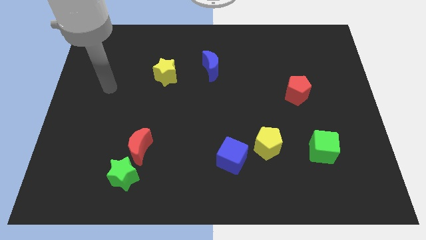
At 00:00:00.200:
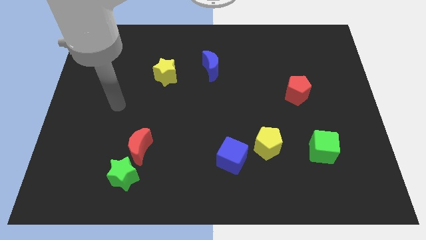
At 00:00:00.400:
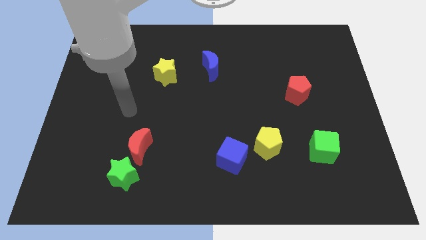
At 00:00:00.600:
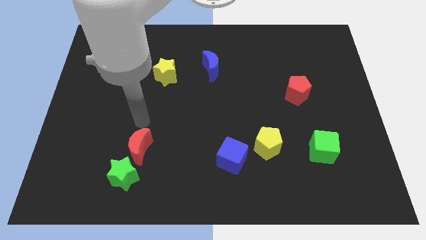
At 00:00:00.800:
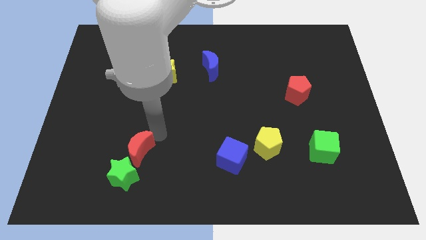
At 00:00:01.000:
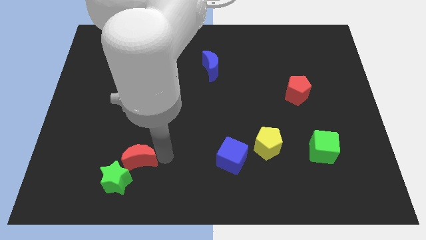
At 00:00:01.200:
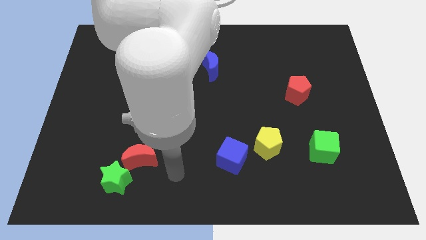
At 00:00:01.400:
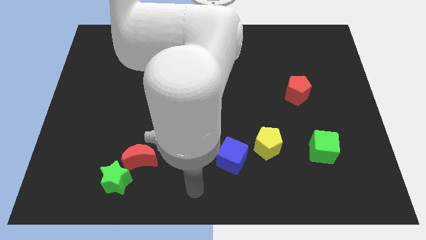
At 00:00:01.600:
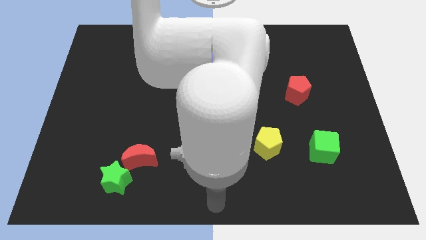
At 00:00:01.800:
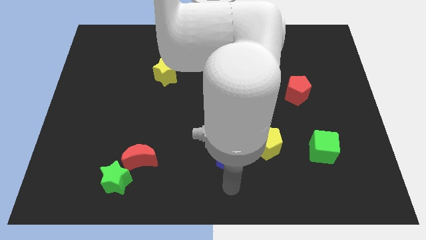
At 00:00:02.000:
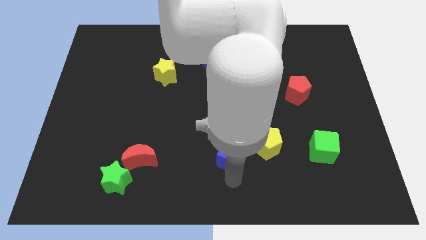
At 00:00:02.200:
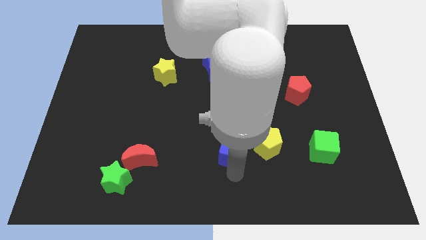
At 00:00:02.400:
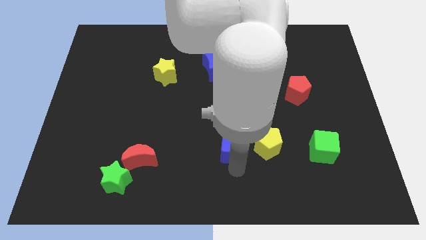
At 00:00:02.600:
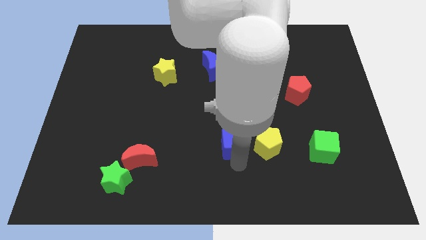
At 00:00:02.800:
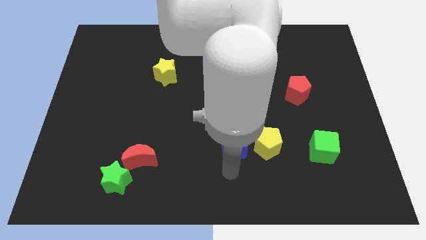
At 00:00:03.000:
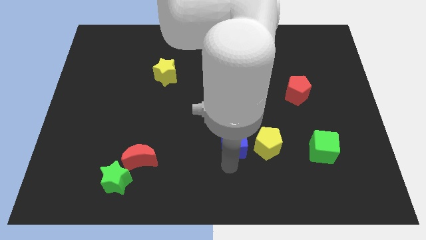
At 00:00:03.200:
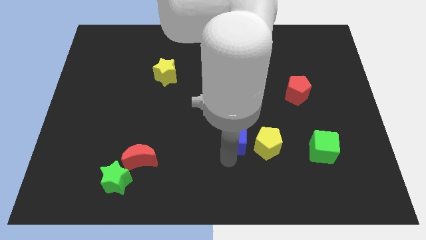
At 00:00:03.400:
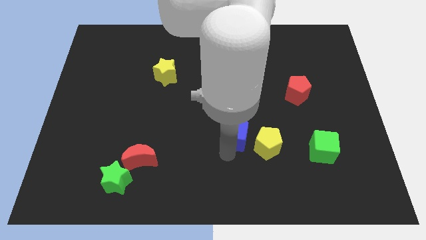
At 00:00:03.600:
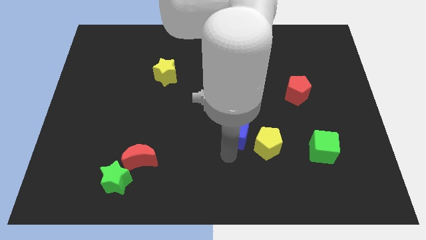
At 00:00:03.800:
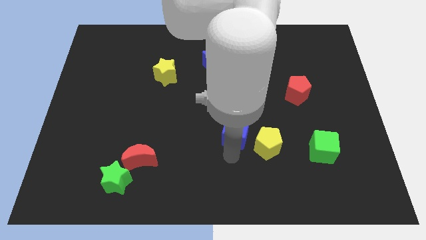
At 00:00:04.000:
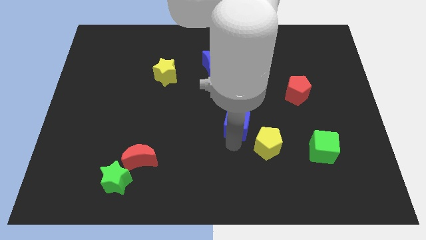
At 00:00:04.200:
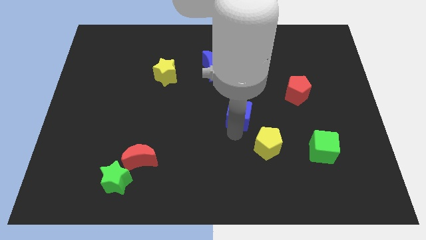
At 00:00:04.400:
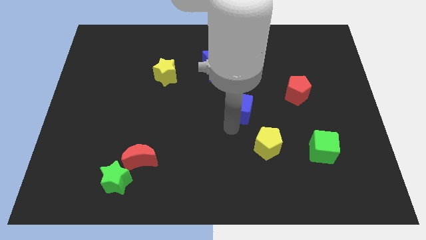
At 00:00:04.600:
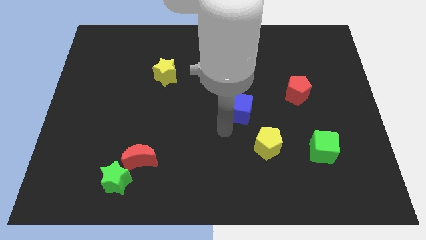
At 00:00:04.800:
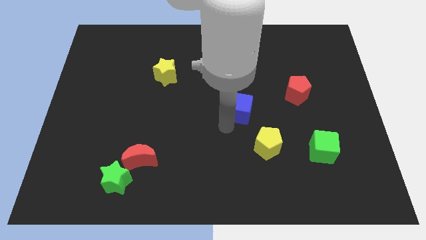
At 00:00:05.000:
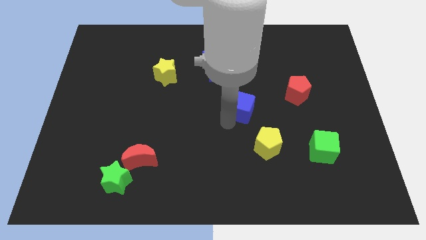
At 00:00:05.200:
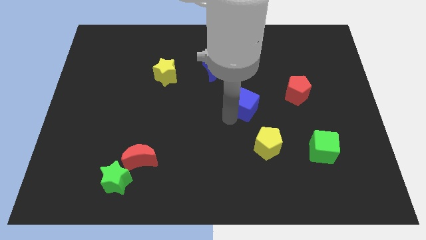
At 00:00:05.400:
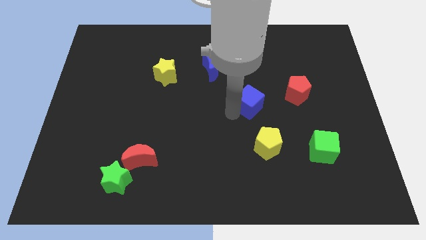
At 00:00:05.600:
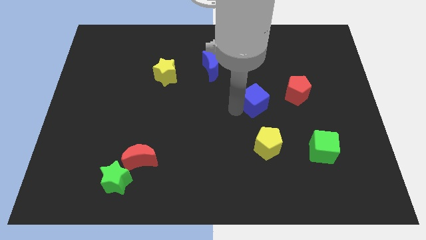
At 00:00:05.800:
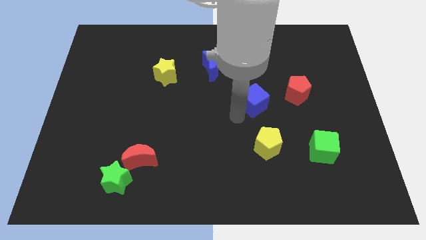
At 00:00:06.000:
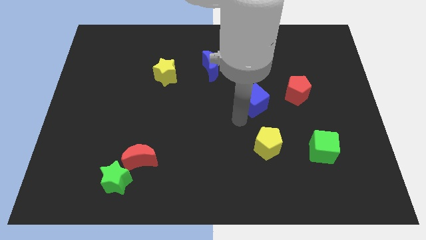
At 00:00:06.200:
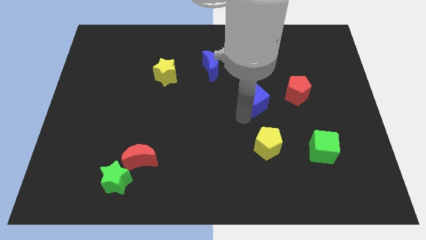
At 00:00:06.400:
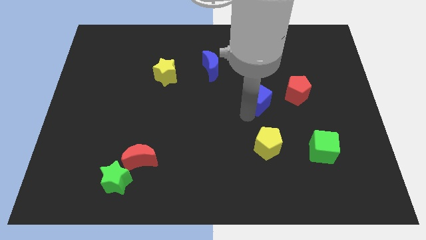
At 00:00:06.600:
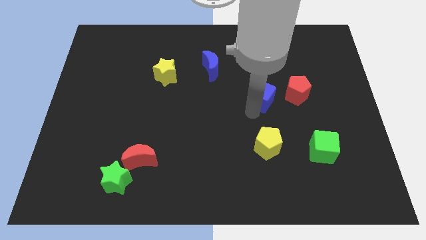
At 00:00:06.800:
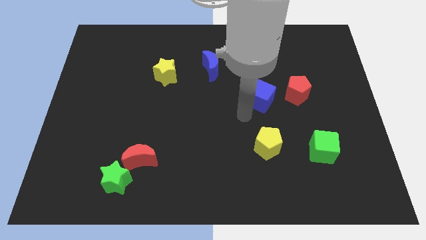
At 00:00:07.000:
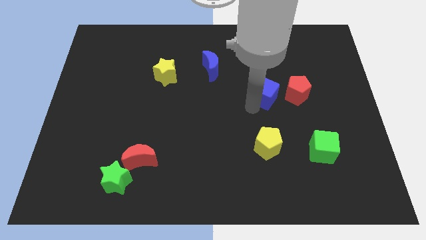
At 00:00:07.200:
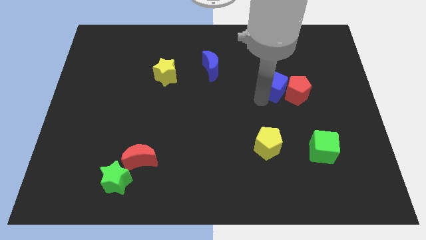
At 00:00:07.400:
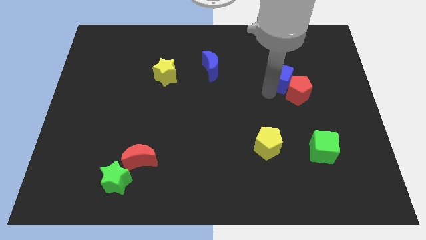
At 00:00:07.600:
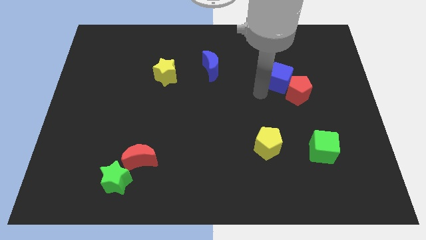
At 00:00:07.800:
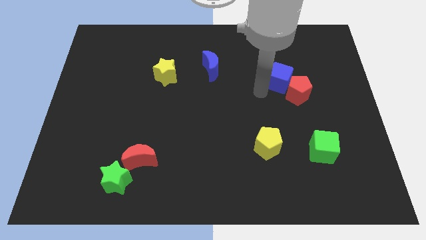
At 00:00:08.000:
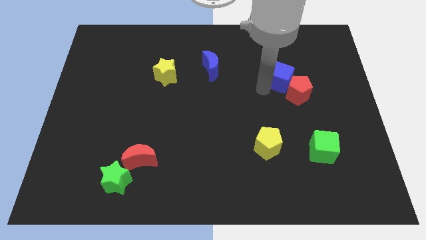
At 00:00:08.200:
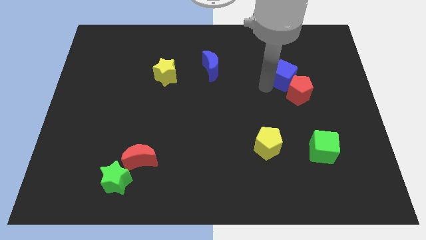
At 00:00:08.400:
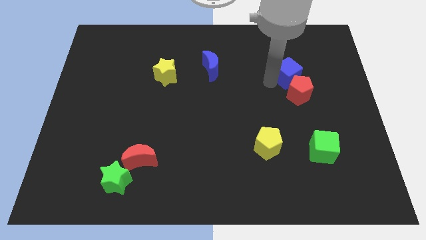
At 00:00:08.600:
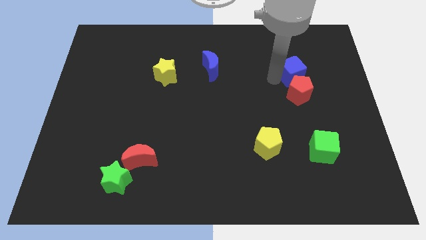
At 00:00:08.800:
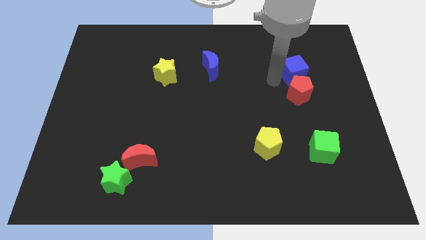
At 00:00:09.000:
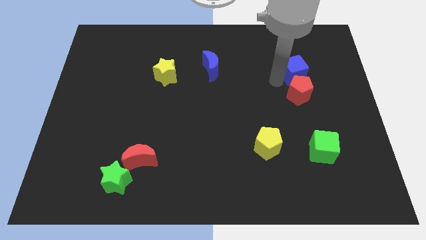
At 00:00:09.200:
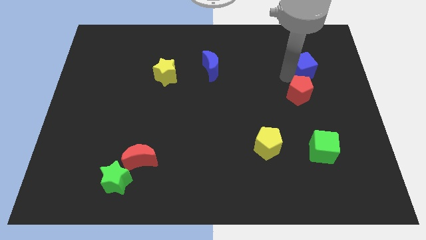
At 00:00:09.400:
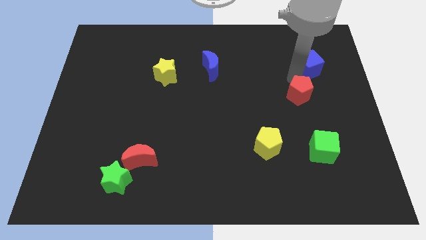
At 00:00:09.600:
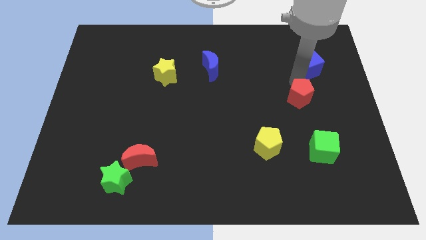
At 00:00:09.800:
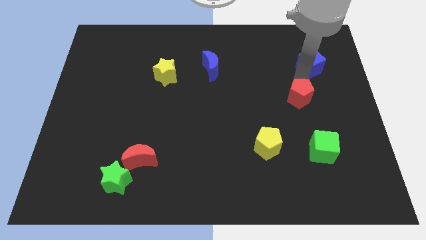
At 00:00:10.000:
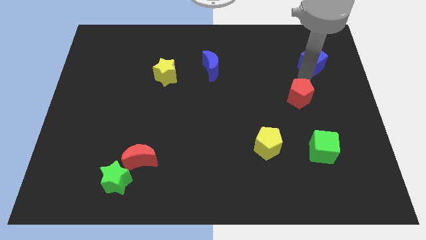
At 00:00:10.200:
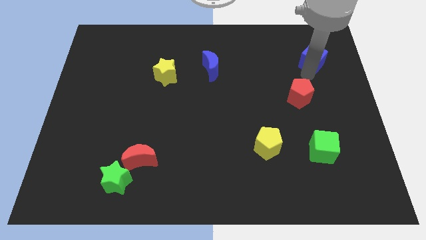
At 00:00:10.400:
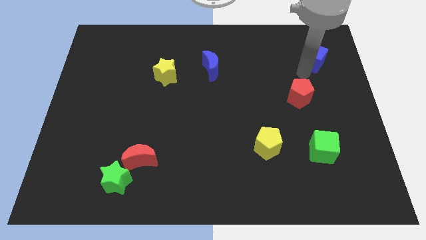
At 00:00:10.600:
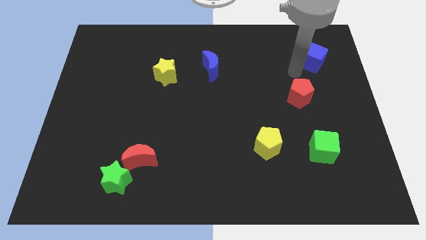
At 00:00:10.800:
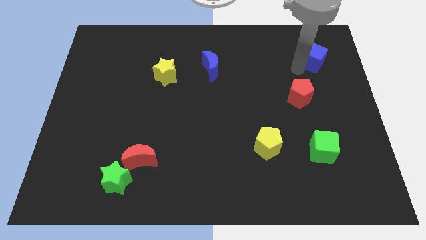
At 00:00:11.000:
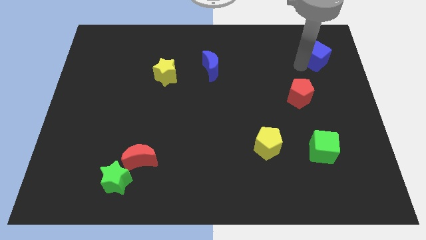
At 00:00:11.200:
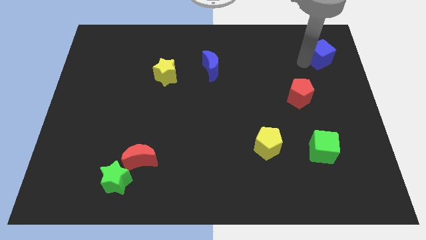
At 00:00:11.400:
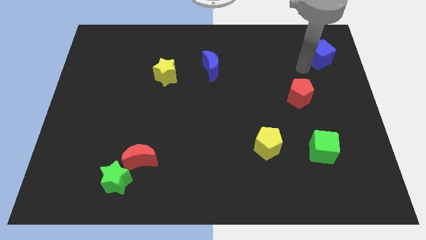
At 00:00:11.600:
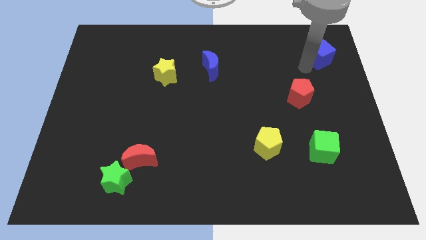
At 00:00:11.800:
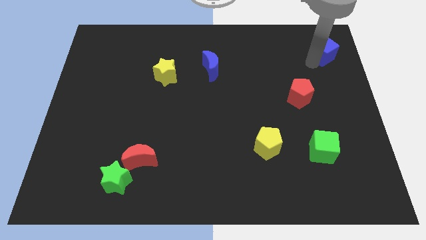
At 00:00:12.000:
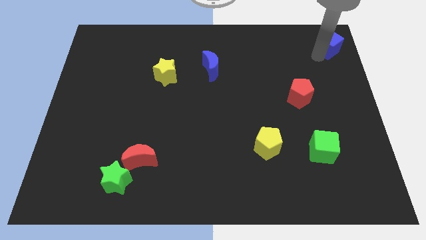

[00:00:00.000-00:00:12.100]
push the blue cube to the top right corner
